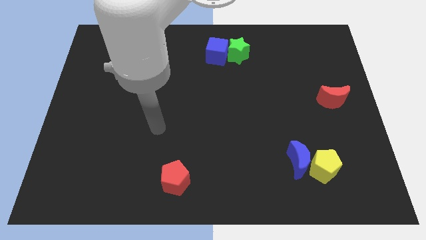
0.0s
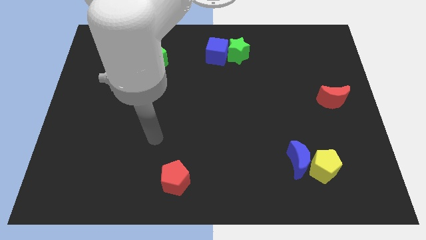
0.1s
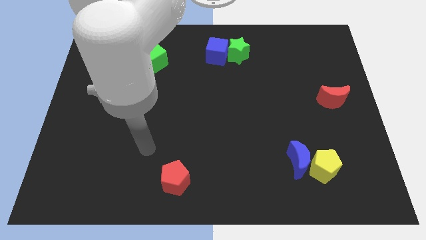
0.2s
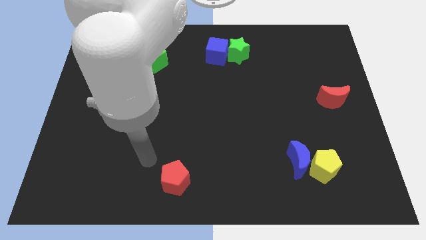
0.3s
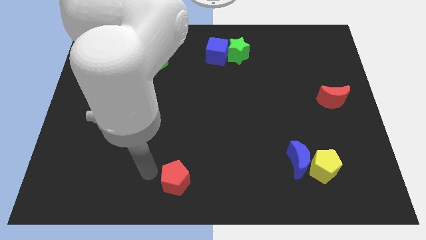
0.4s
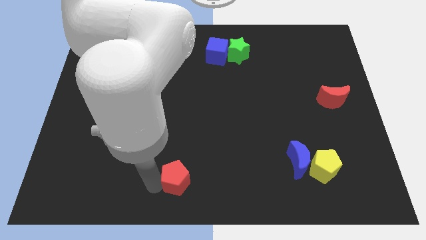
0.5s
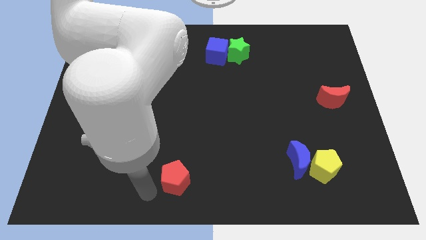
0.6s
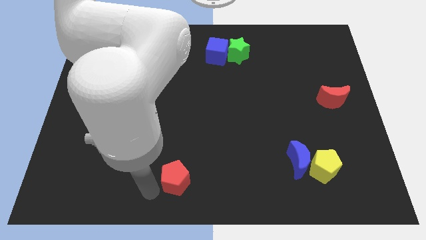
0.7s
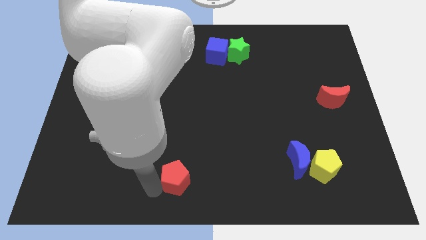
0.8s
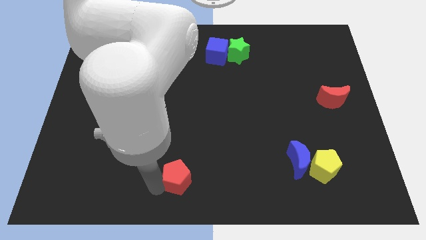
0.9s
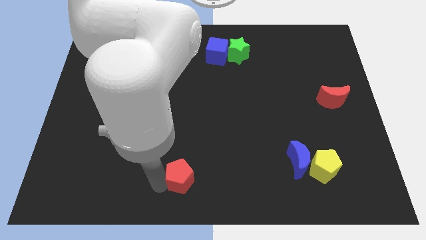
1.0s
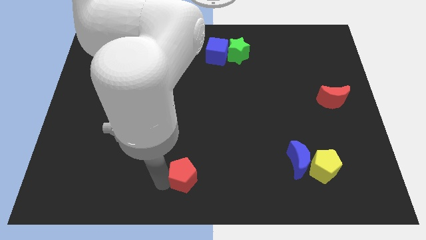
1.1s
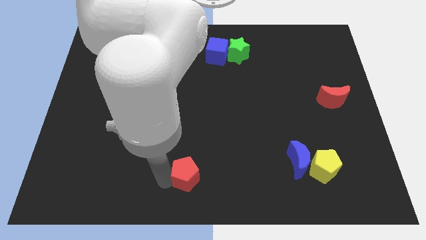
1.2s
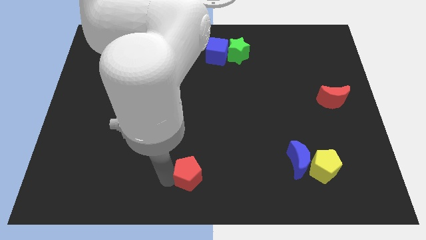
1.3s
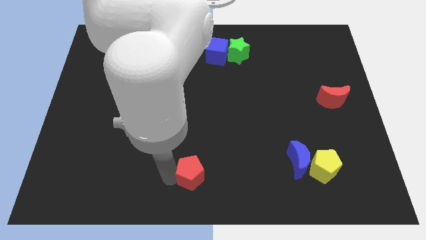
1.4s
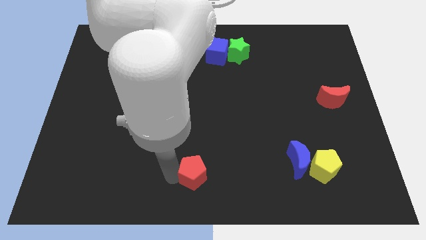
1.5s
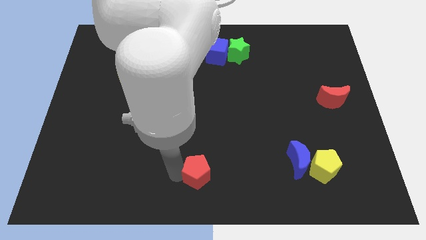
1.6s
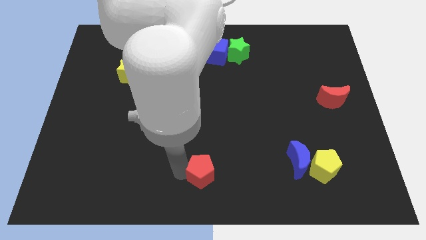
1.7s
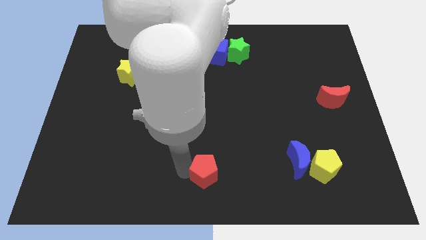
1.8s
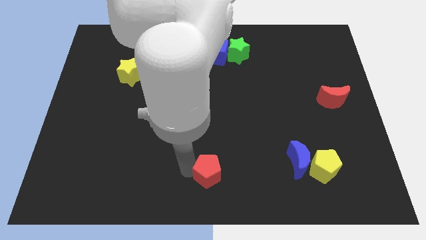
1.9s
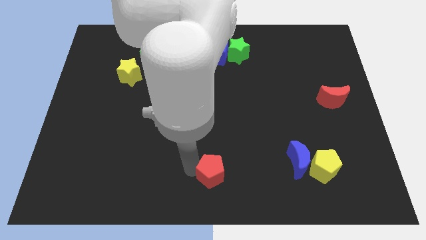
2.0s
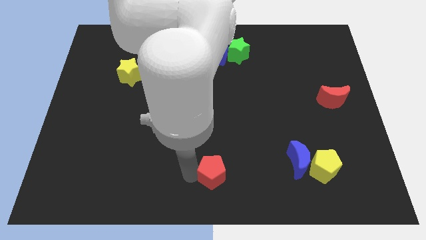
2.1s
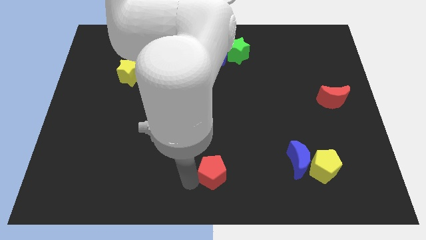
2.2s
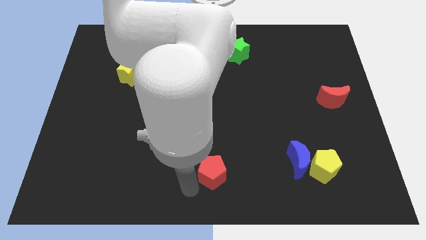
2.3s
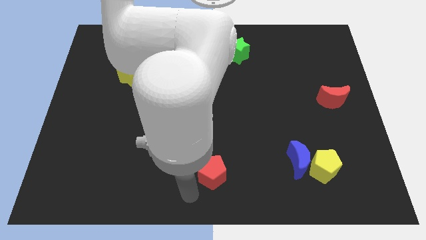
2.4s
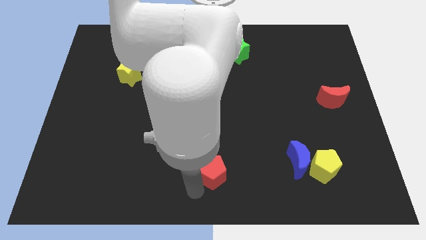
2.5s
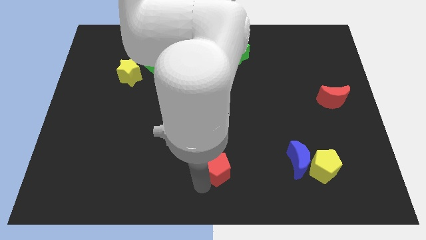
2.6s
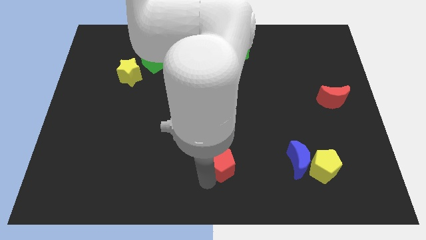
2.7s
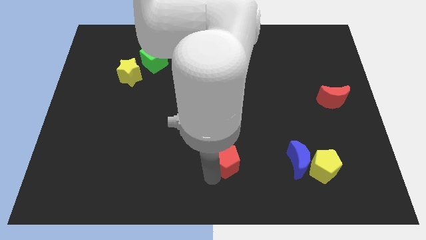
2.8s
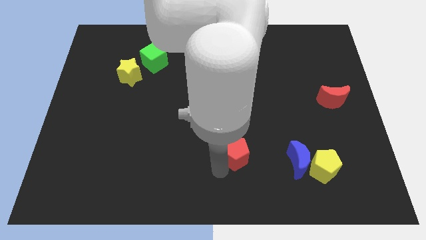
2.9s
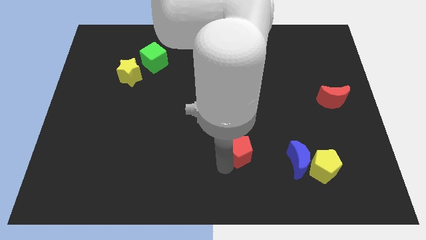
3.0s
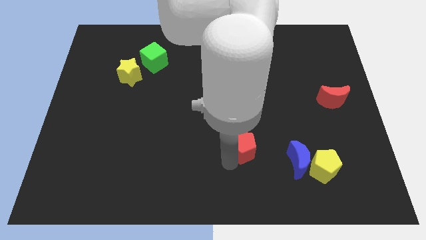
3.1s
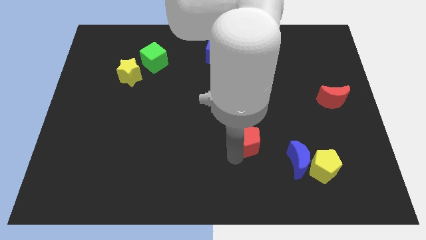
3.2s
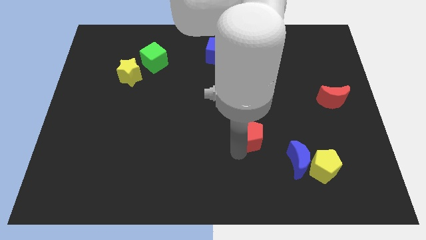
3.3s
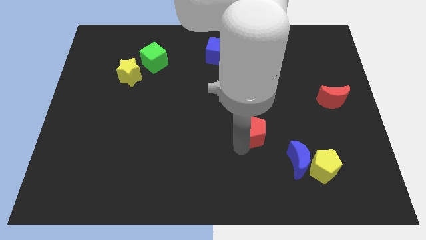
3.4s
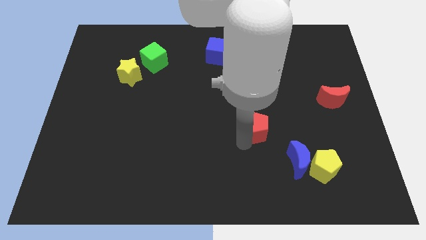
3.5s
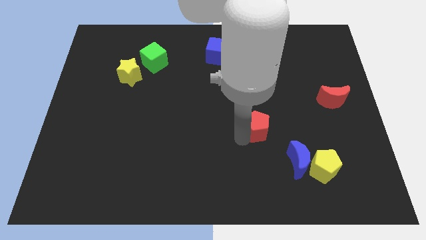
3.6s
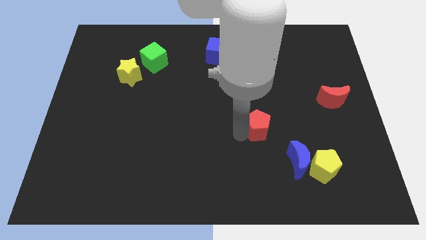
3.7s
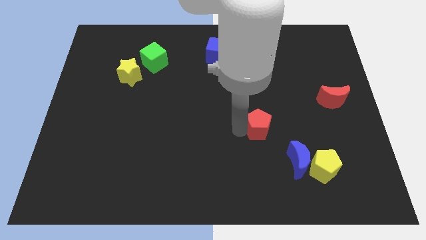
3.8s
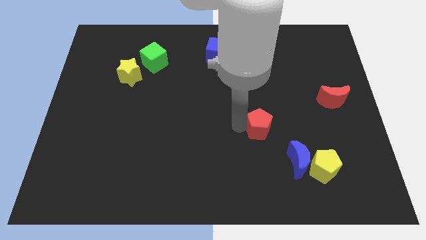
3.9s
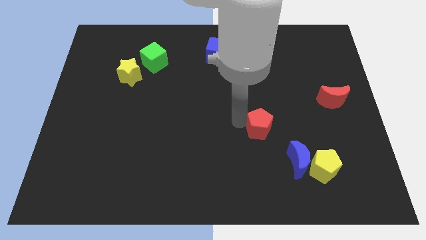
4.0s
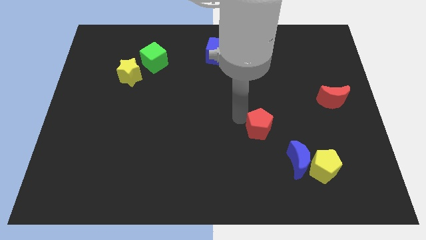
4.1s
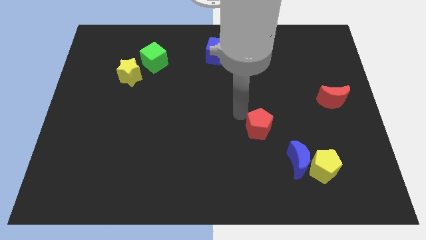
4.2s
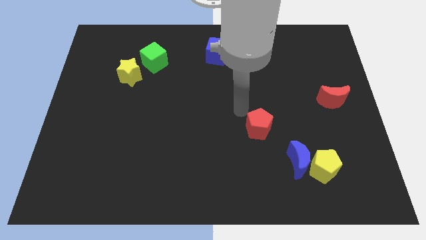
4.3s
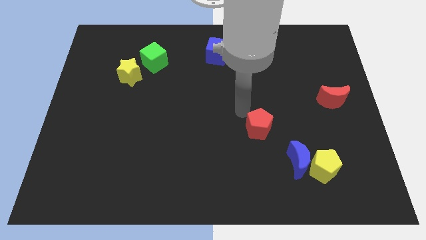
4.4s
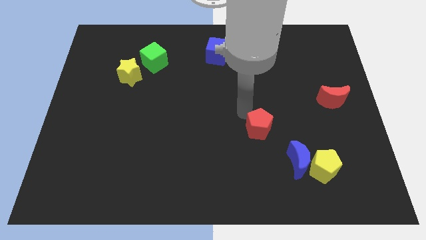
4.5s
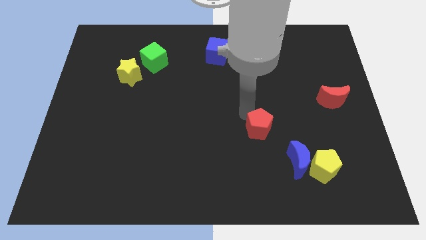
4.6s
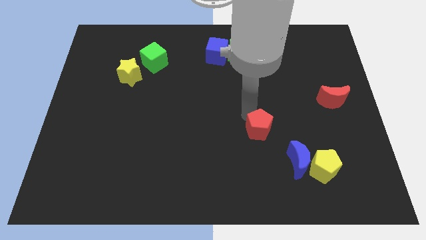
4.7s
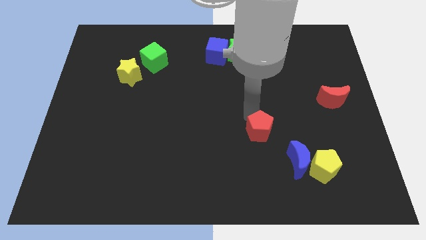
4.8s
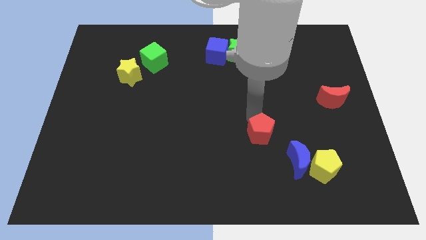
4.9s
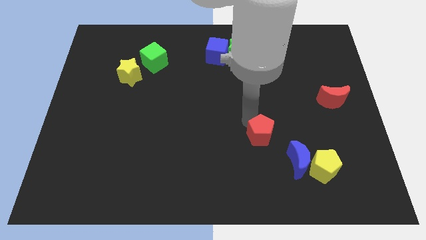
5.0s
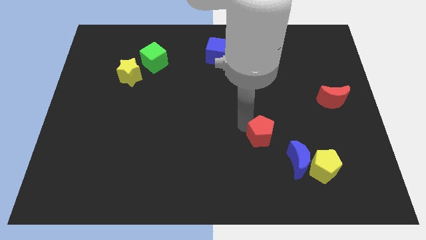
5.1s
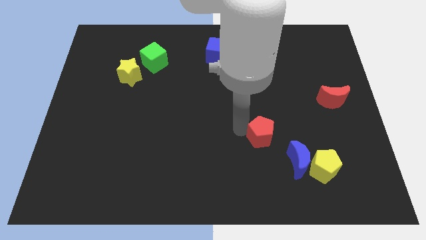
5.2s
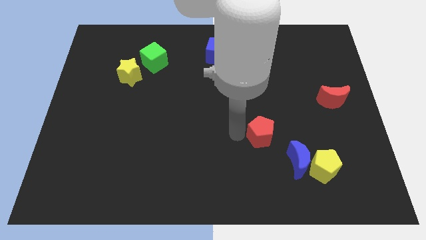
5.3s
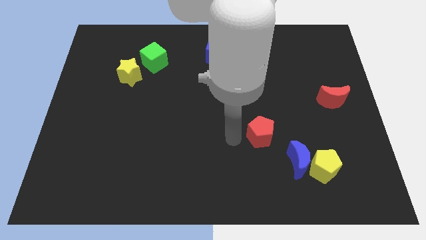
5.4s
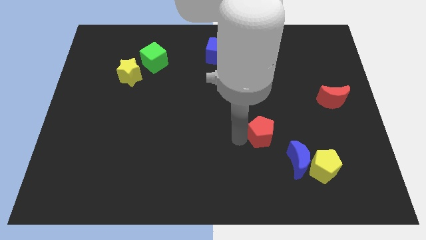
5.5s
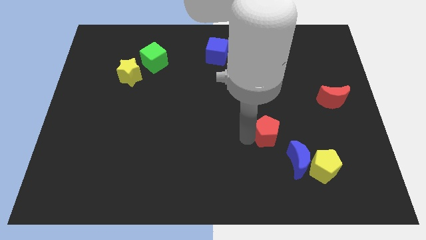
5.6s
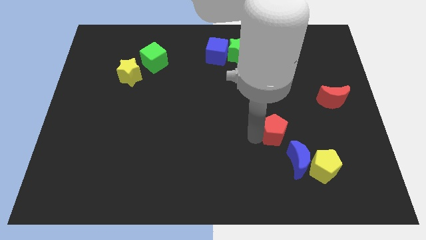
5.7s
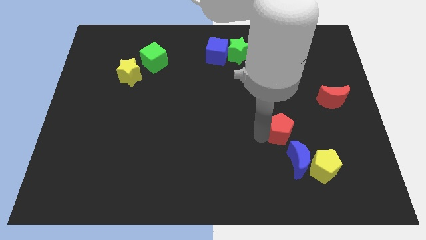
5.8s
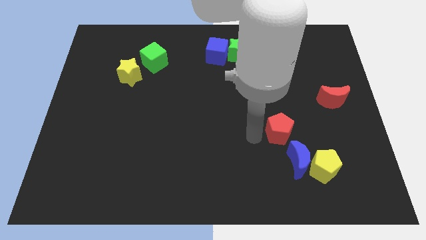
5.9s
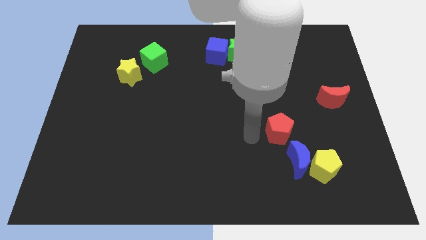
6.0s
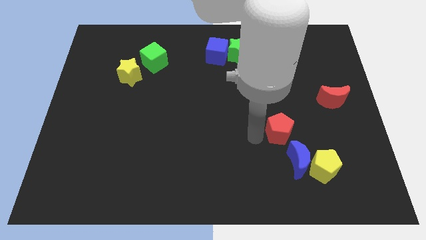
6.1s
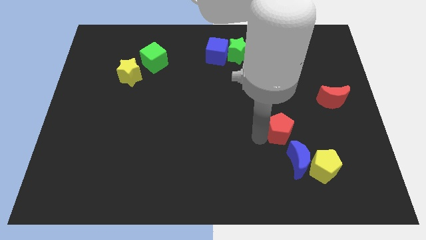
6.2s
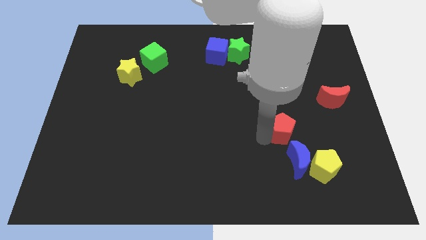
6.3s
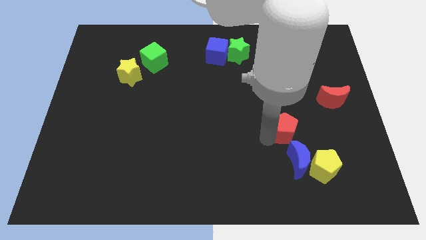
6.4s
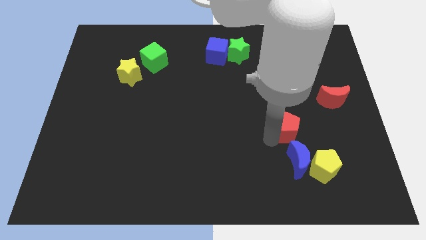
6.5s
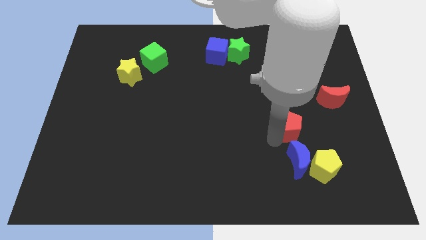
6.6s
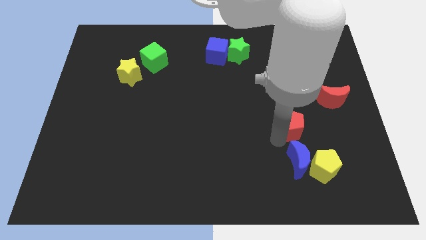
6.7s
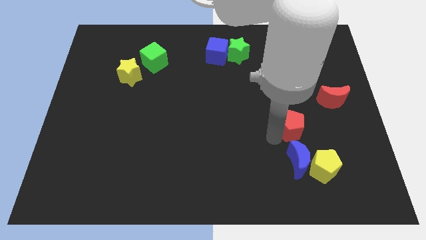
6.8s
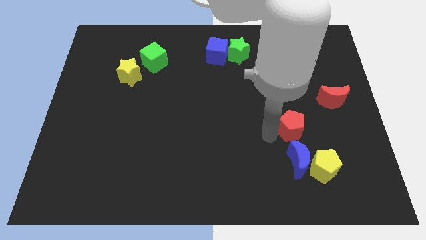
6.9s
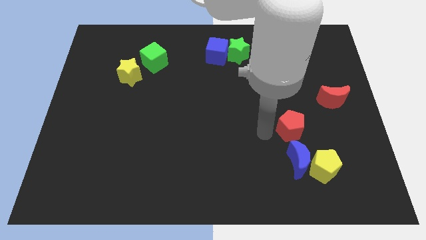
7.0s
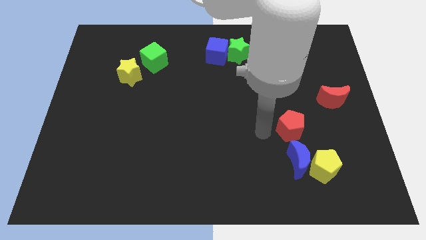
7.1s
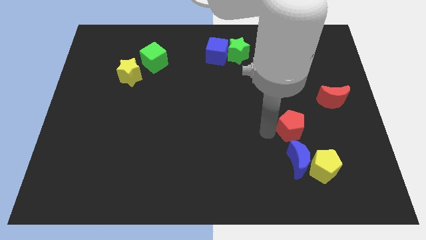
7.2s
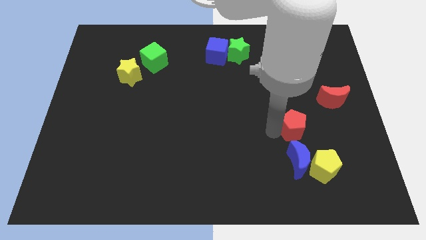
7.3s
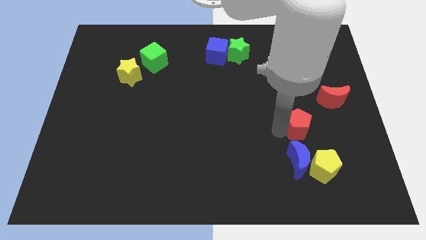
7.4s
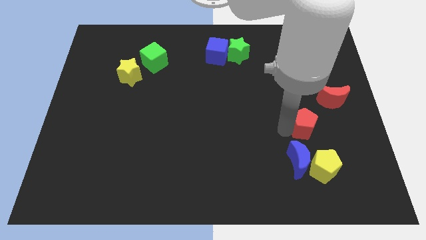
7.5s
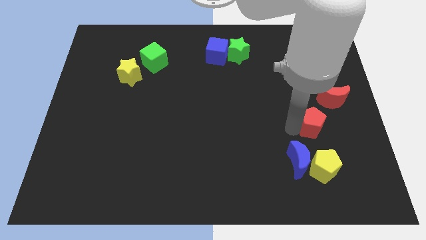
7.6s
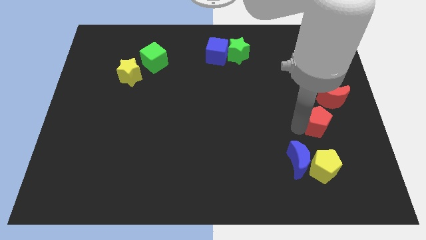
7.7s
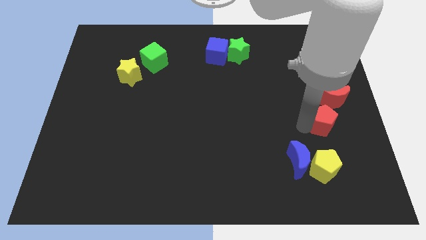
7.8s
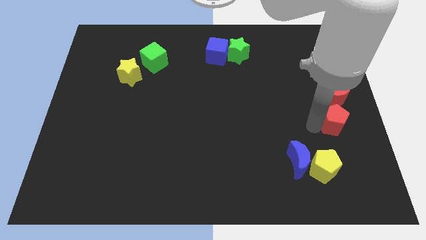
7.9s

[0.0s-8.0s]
put the red pentagon to the right side
